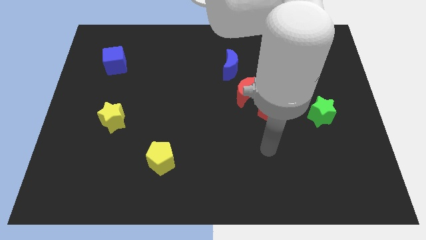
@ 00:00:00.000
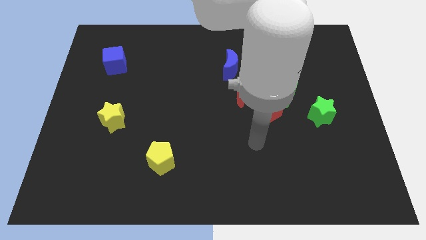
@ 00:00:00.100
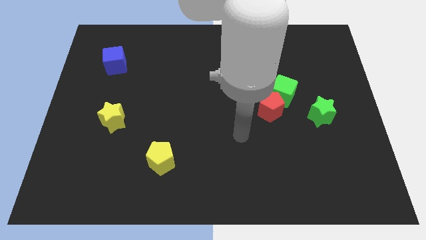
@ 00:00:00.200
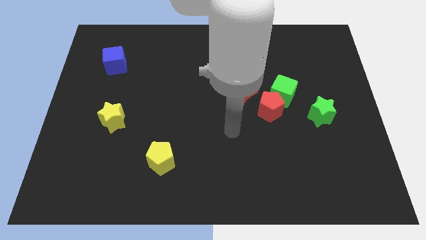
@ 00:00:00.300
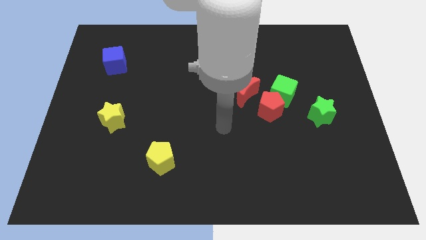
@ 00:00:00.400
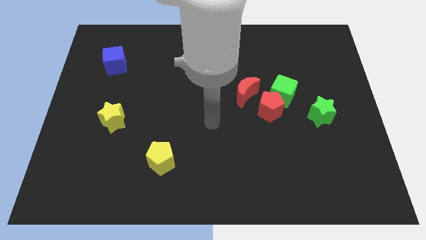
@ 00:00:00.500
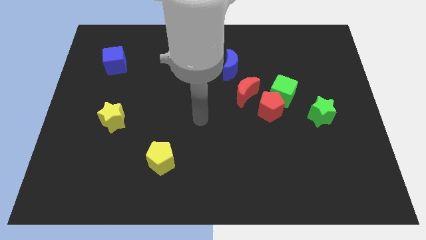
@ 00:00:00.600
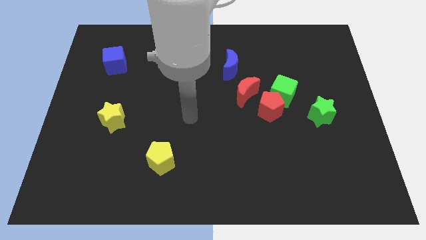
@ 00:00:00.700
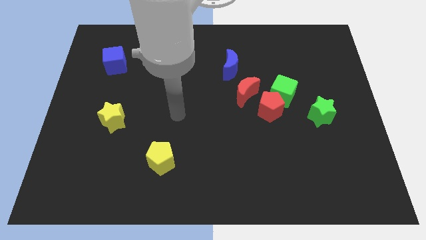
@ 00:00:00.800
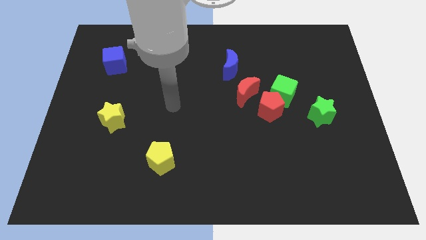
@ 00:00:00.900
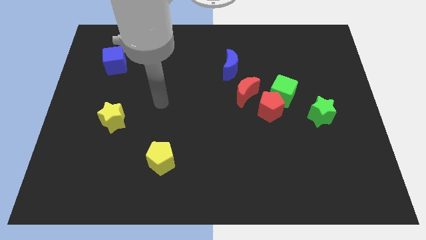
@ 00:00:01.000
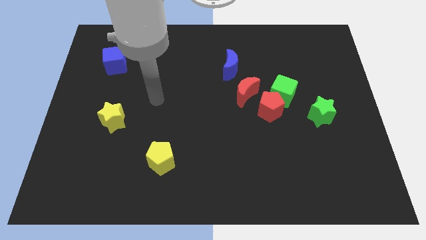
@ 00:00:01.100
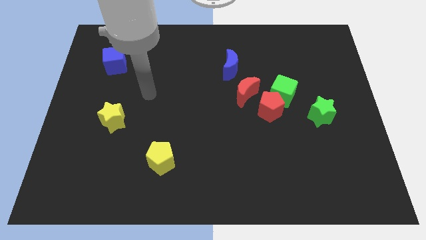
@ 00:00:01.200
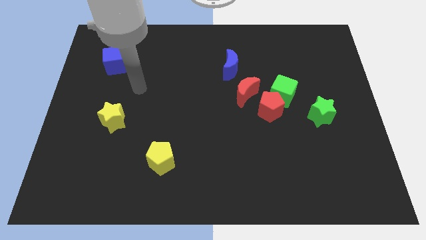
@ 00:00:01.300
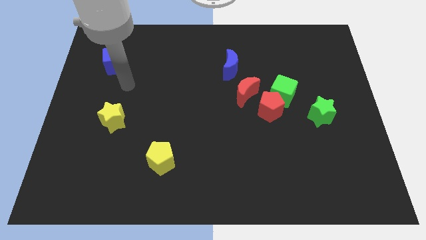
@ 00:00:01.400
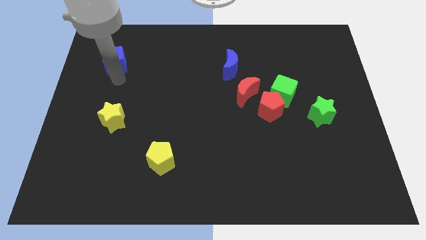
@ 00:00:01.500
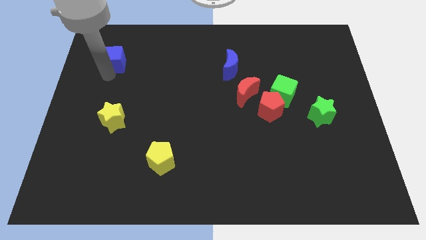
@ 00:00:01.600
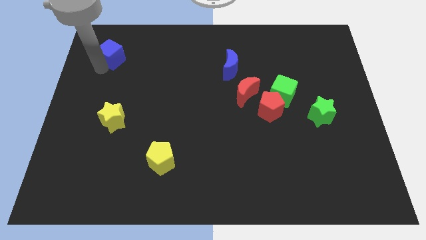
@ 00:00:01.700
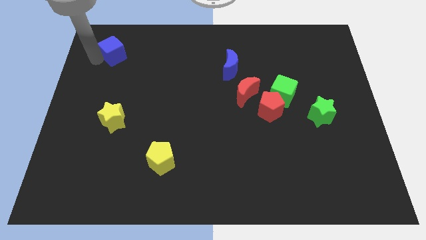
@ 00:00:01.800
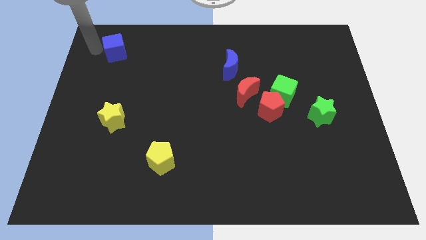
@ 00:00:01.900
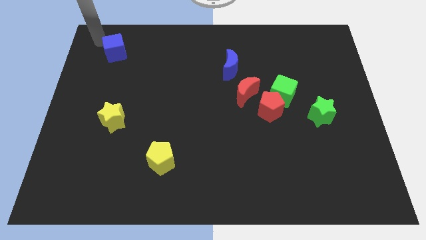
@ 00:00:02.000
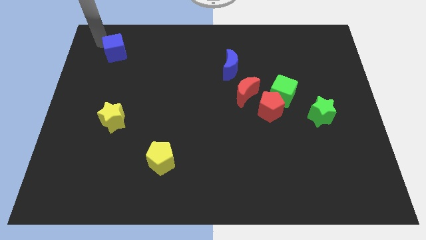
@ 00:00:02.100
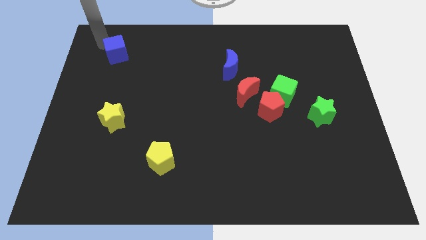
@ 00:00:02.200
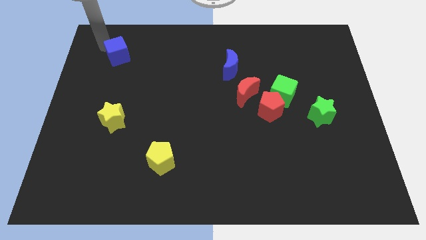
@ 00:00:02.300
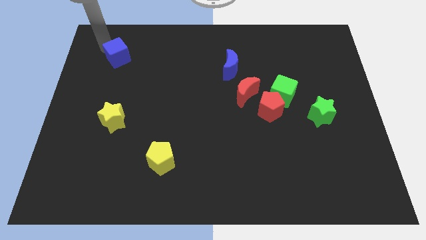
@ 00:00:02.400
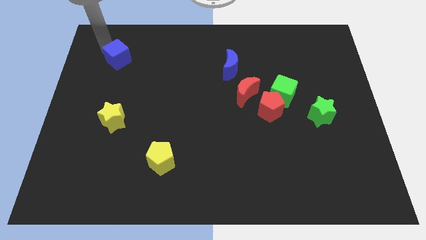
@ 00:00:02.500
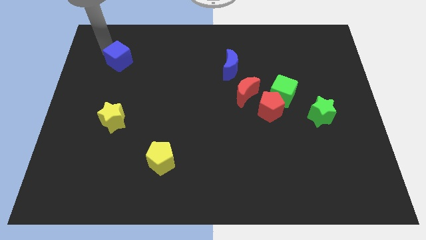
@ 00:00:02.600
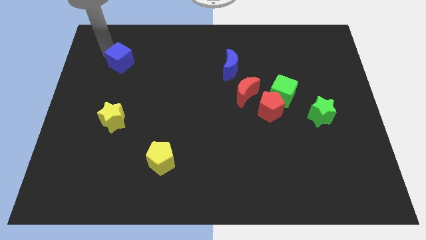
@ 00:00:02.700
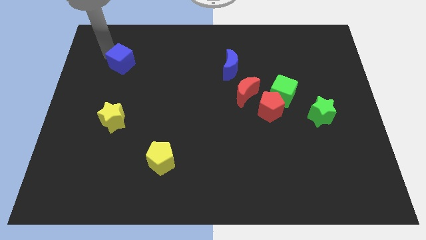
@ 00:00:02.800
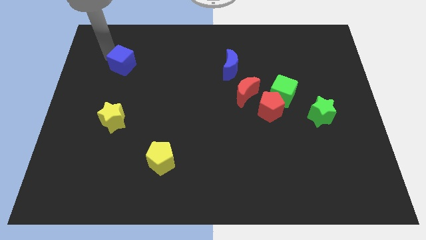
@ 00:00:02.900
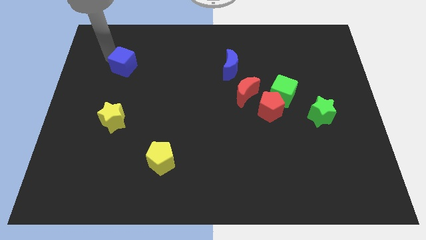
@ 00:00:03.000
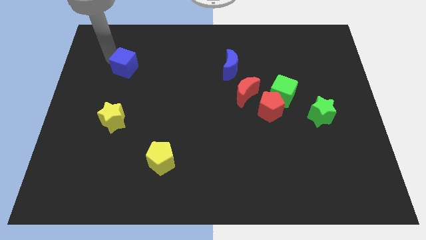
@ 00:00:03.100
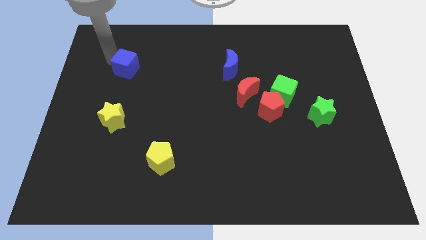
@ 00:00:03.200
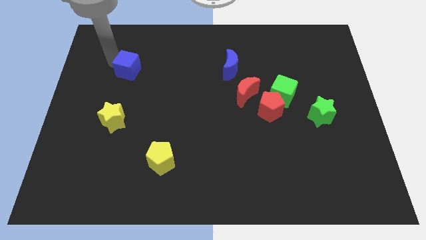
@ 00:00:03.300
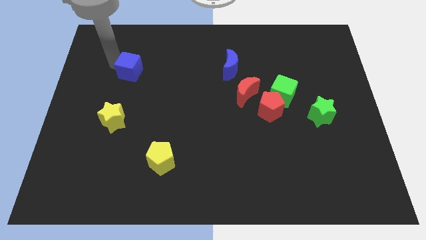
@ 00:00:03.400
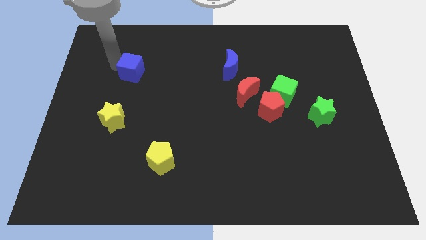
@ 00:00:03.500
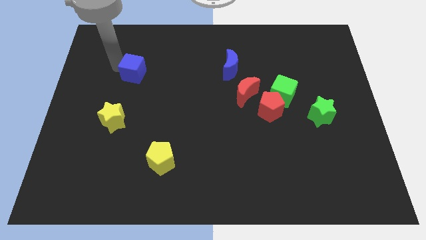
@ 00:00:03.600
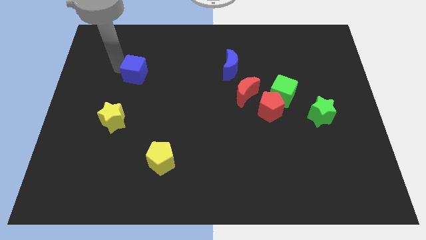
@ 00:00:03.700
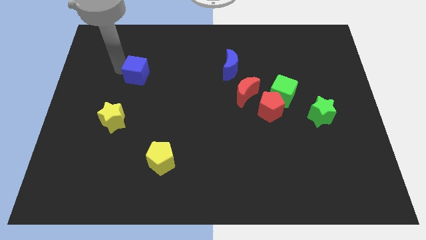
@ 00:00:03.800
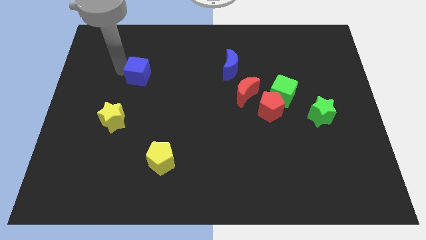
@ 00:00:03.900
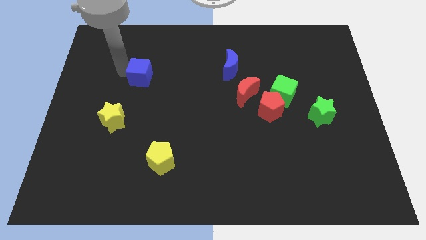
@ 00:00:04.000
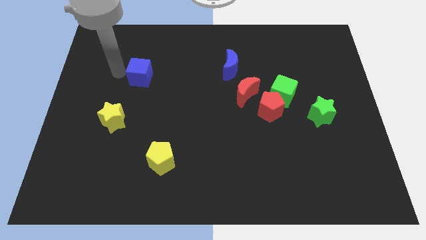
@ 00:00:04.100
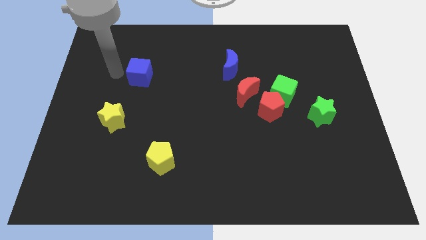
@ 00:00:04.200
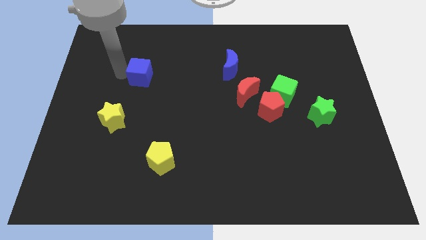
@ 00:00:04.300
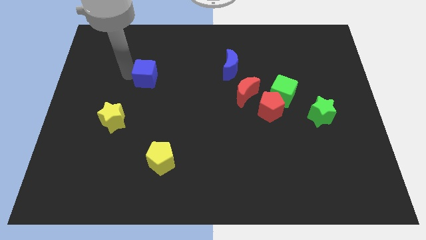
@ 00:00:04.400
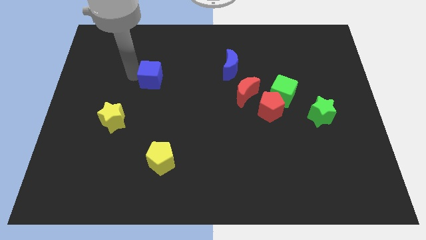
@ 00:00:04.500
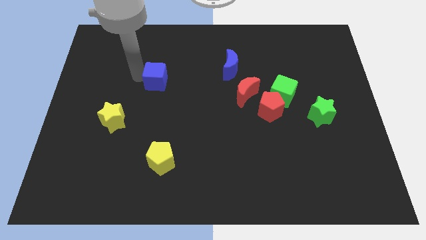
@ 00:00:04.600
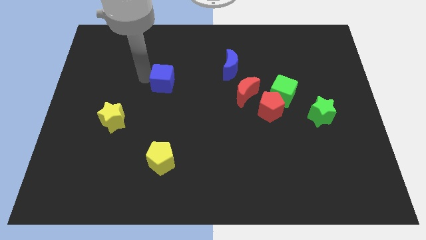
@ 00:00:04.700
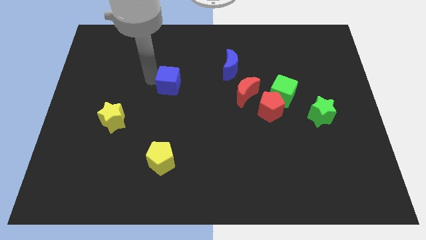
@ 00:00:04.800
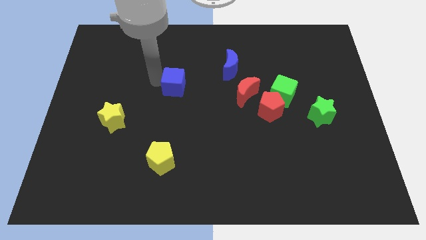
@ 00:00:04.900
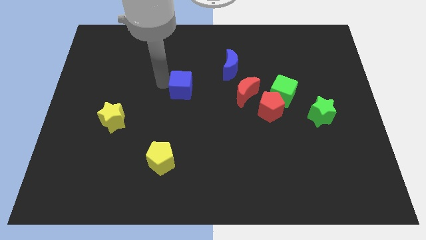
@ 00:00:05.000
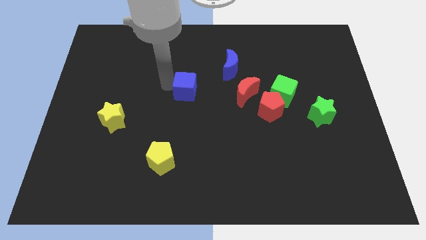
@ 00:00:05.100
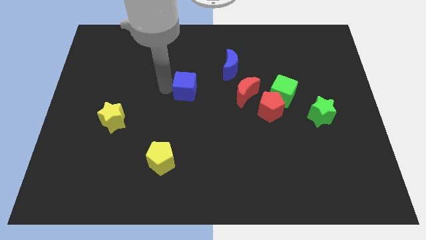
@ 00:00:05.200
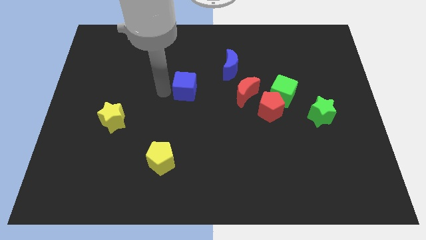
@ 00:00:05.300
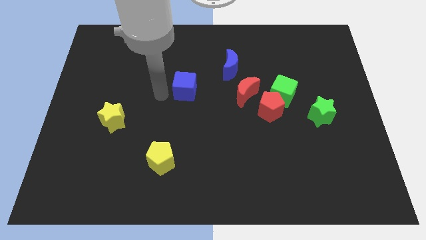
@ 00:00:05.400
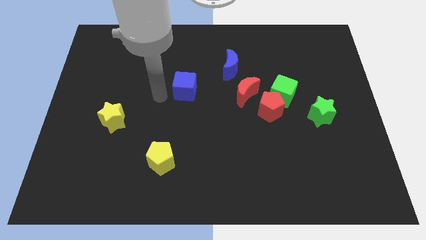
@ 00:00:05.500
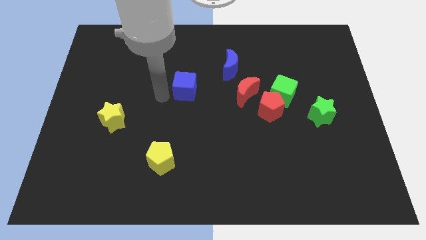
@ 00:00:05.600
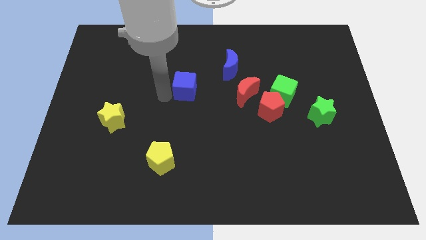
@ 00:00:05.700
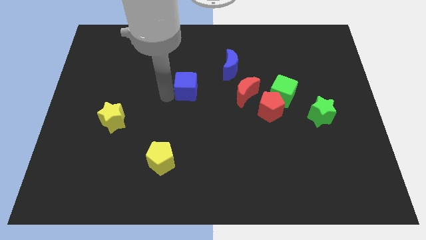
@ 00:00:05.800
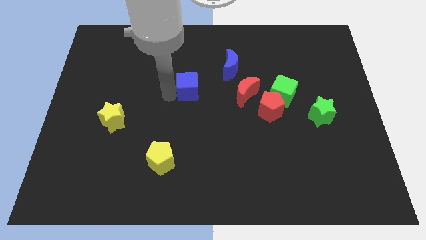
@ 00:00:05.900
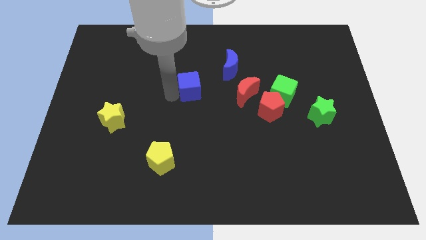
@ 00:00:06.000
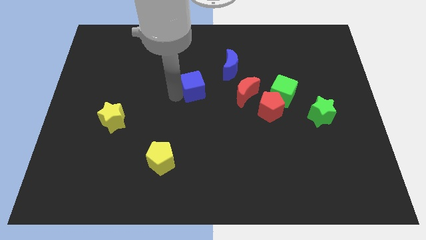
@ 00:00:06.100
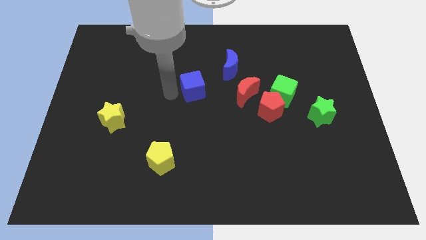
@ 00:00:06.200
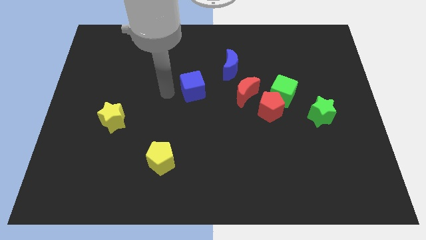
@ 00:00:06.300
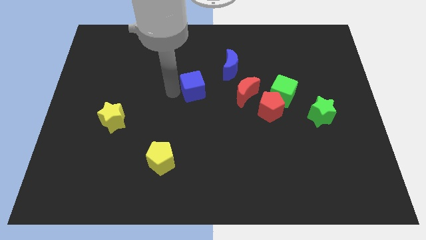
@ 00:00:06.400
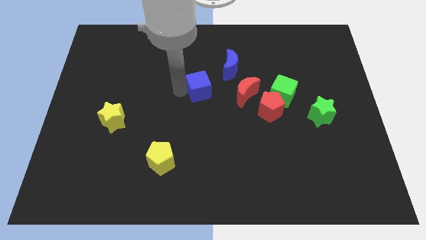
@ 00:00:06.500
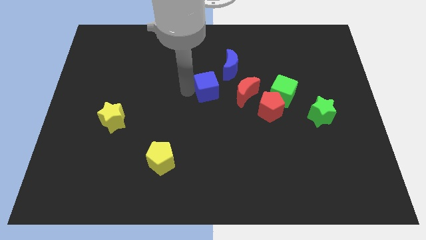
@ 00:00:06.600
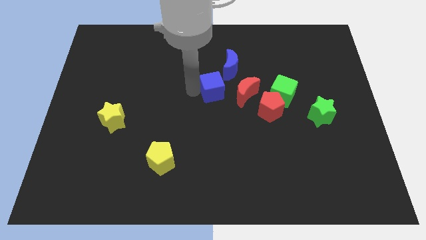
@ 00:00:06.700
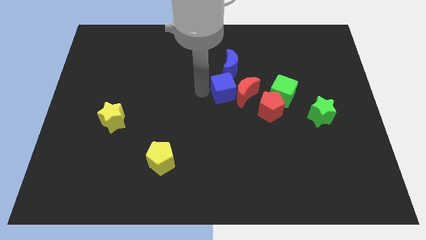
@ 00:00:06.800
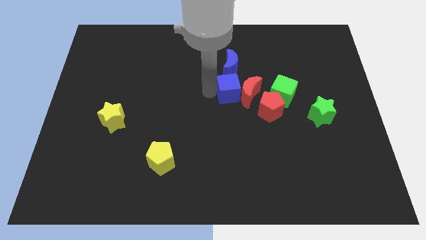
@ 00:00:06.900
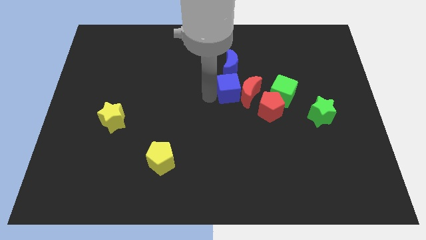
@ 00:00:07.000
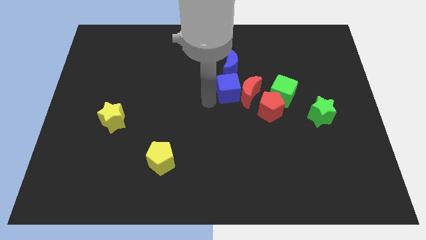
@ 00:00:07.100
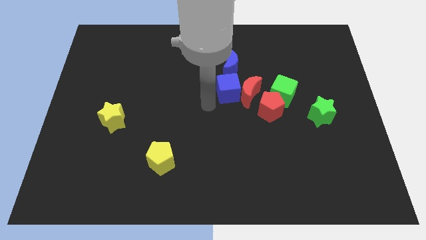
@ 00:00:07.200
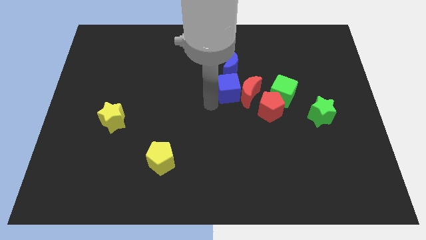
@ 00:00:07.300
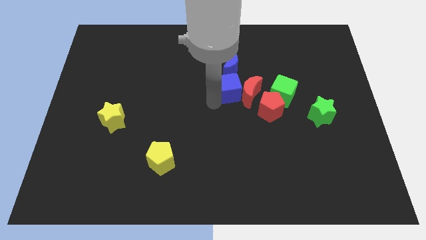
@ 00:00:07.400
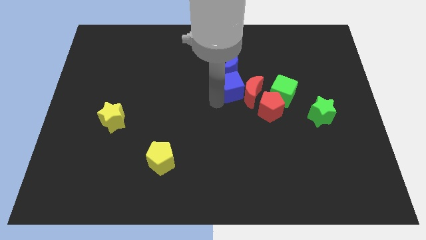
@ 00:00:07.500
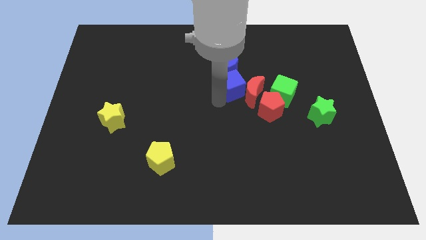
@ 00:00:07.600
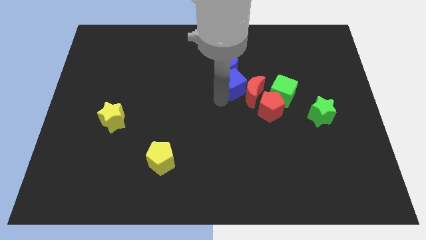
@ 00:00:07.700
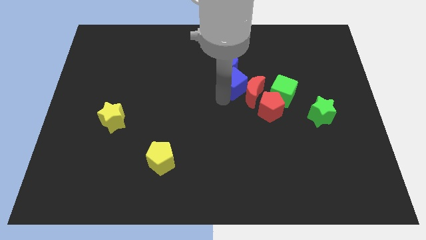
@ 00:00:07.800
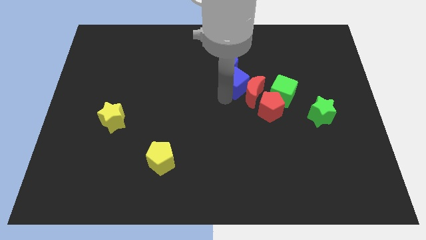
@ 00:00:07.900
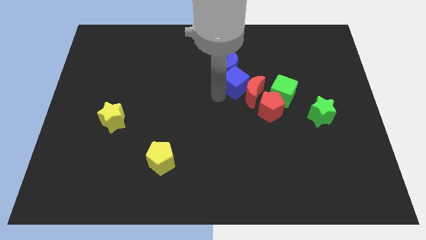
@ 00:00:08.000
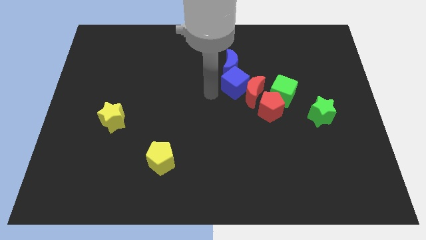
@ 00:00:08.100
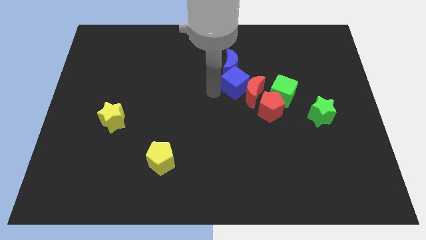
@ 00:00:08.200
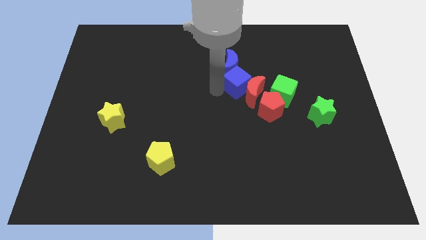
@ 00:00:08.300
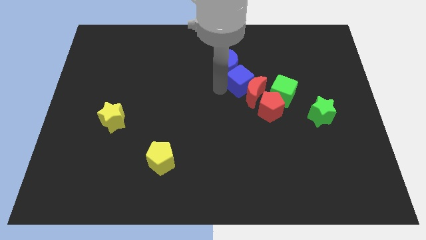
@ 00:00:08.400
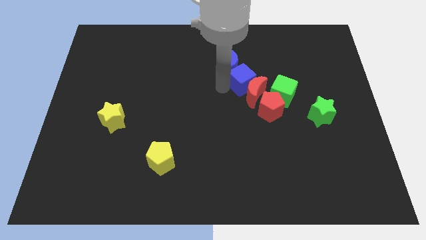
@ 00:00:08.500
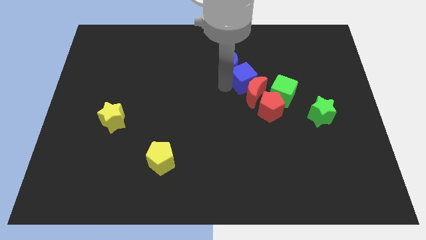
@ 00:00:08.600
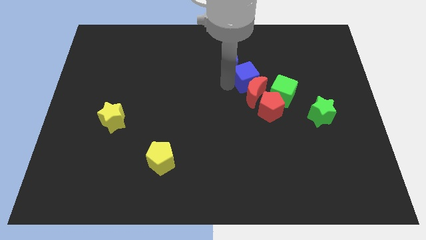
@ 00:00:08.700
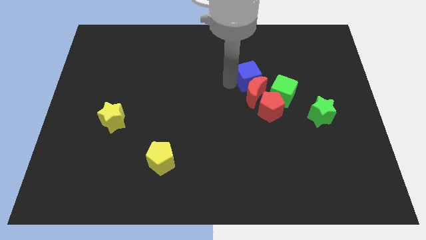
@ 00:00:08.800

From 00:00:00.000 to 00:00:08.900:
move the blue cube to the top side of the red pentagon
